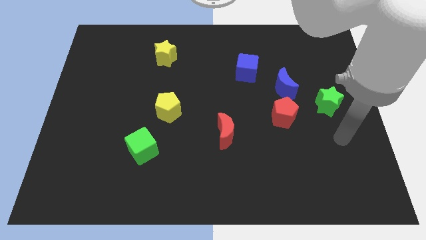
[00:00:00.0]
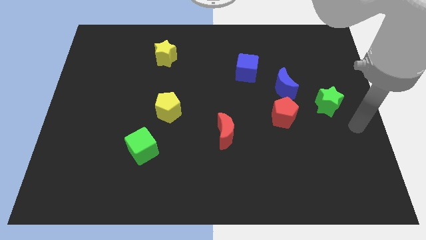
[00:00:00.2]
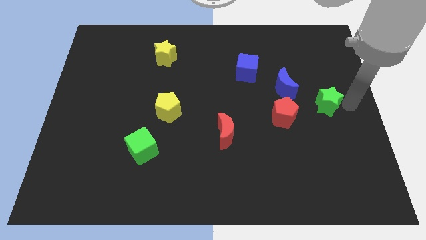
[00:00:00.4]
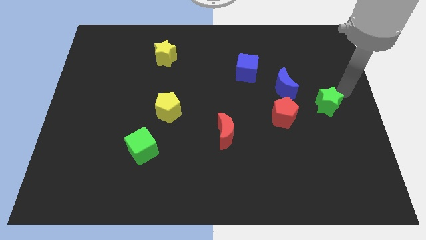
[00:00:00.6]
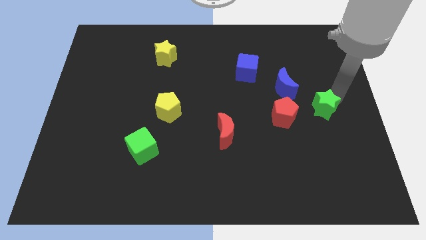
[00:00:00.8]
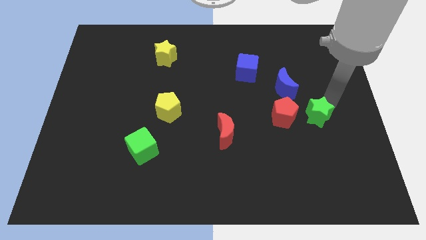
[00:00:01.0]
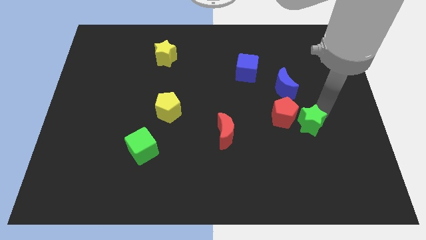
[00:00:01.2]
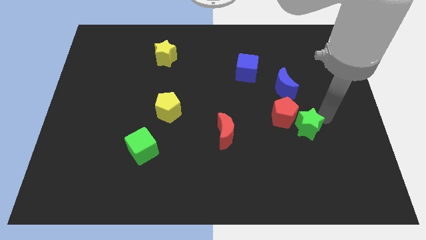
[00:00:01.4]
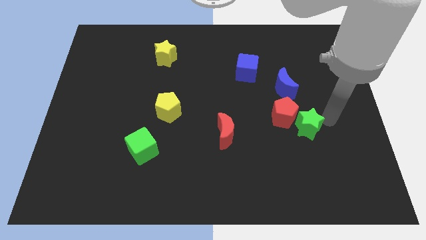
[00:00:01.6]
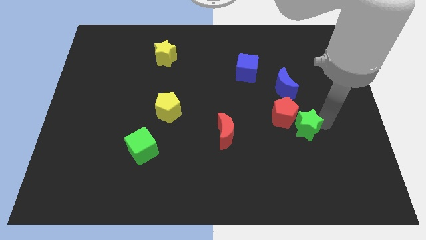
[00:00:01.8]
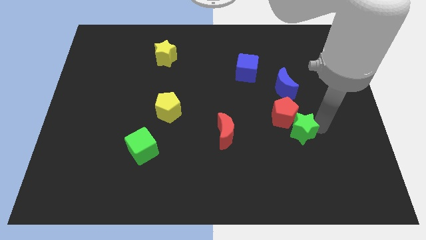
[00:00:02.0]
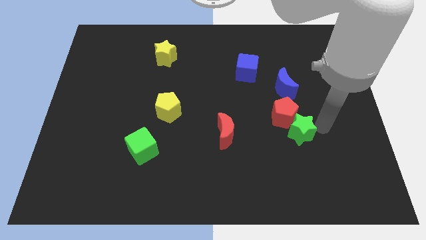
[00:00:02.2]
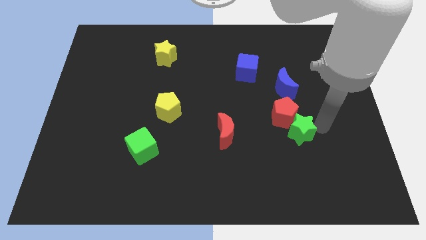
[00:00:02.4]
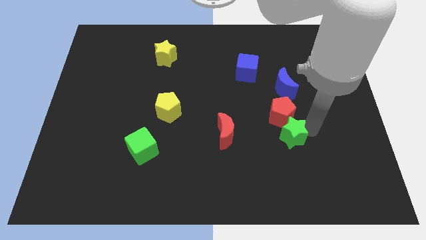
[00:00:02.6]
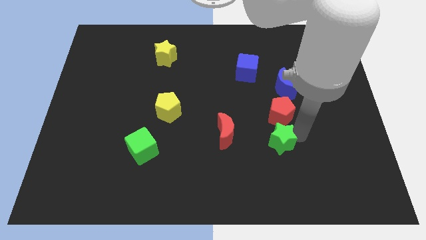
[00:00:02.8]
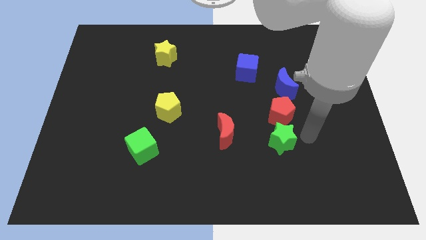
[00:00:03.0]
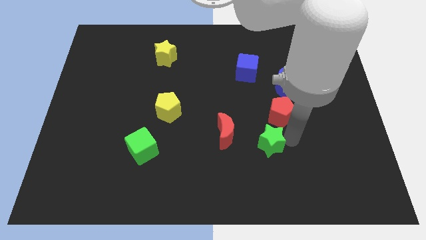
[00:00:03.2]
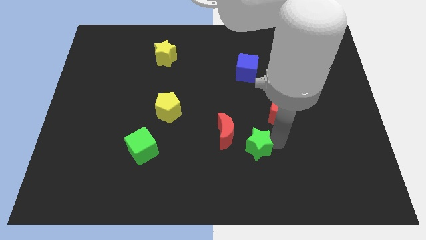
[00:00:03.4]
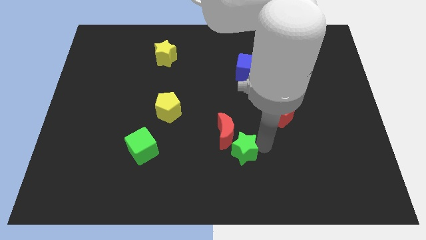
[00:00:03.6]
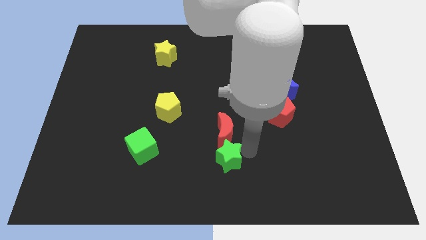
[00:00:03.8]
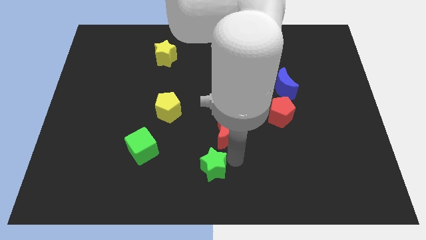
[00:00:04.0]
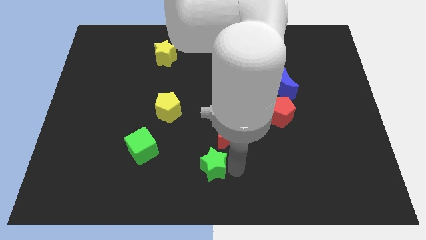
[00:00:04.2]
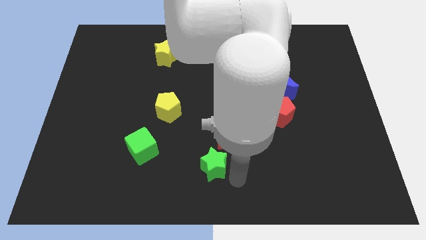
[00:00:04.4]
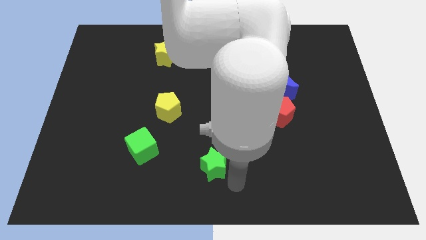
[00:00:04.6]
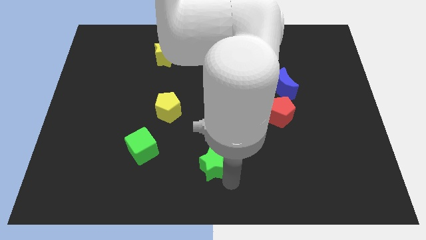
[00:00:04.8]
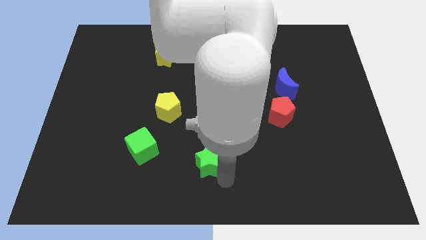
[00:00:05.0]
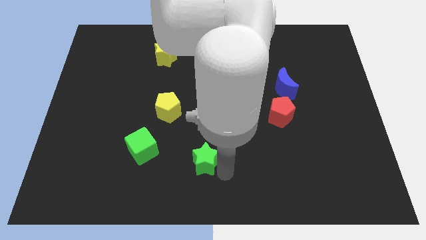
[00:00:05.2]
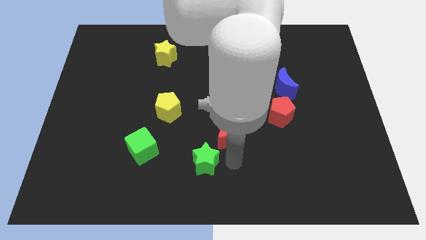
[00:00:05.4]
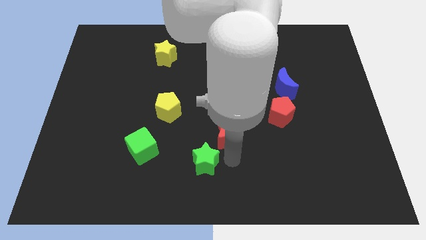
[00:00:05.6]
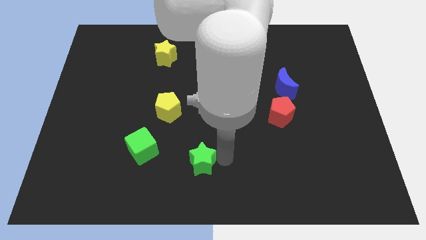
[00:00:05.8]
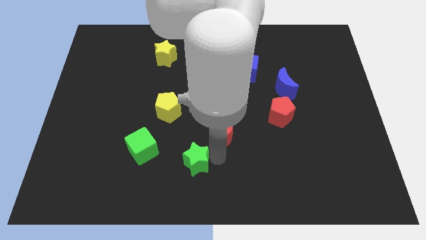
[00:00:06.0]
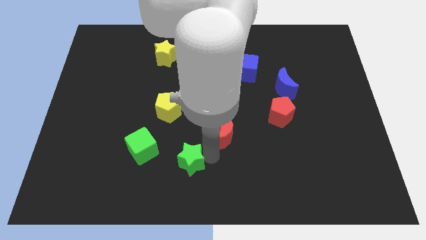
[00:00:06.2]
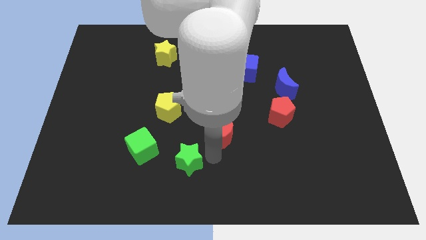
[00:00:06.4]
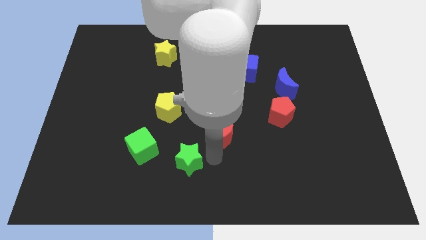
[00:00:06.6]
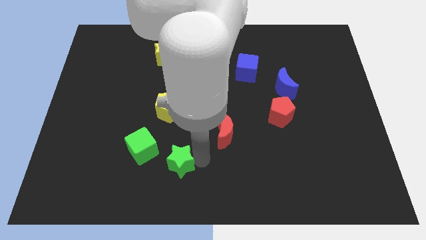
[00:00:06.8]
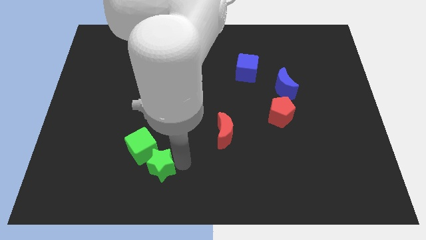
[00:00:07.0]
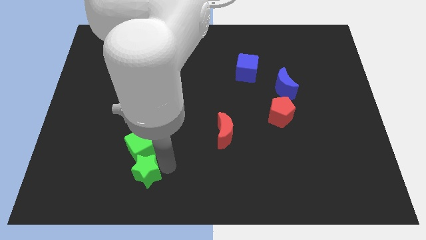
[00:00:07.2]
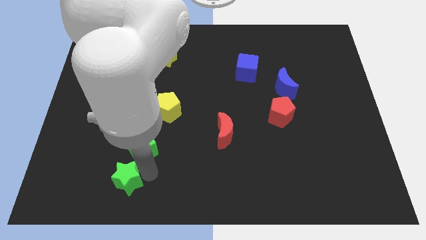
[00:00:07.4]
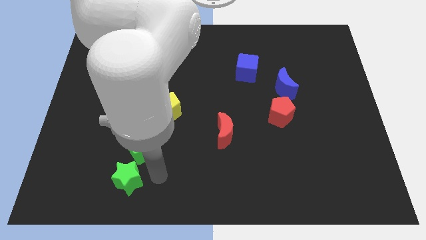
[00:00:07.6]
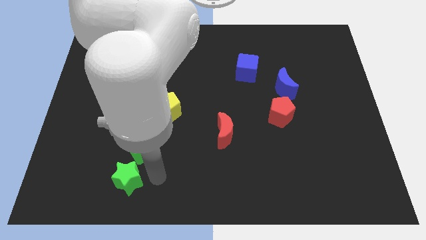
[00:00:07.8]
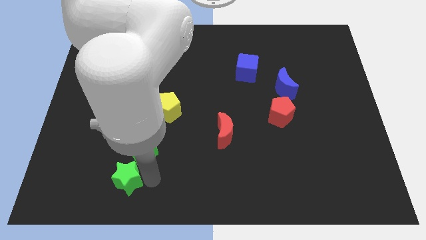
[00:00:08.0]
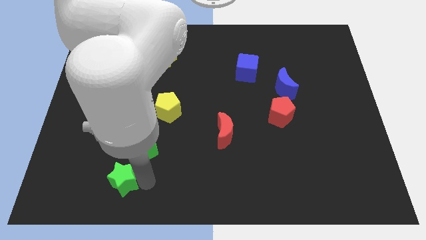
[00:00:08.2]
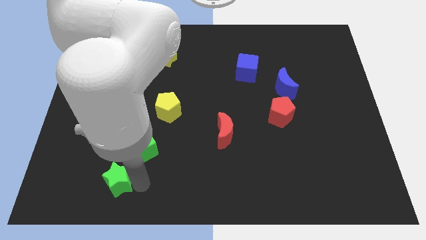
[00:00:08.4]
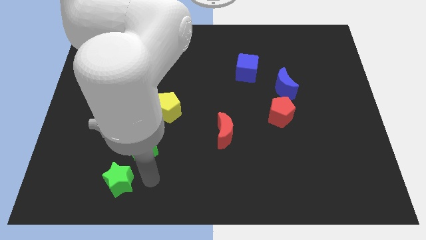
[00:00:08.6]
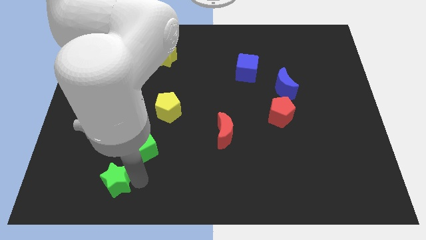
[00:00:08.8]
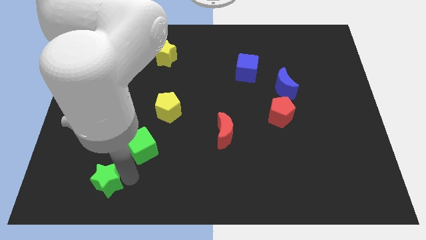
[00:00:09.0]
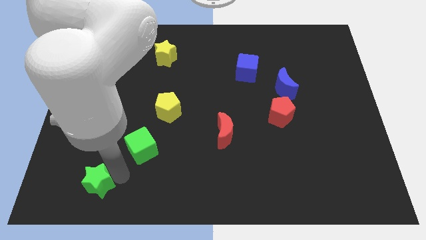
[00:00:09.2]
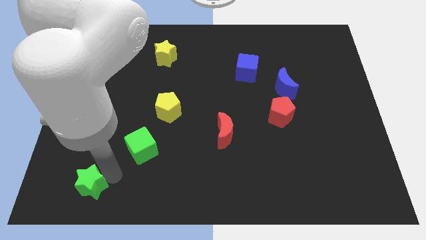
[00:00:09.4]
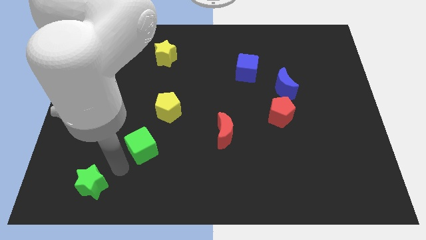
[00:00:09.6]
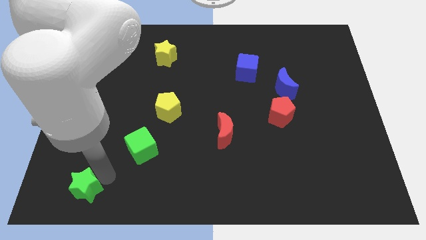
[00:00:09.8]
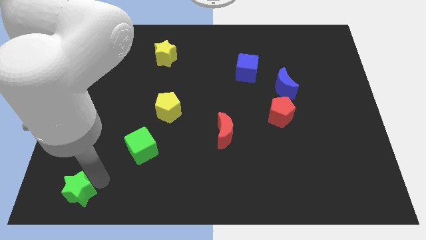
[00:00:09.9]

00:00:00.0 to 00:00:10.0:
move the green star to the bottom left of the board

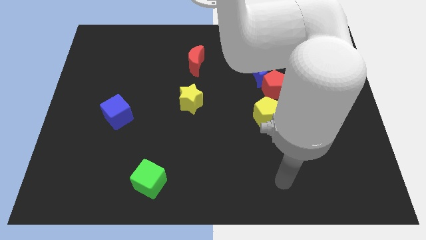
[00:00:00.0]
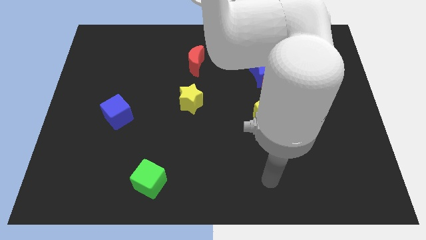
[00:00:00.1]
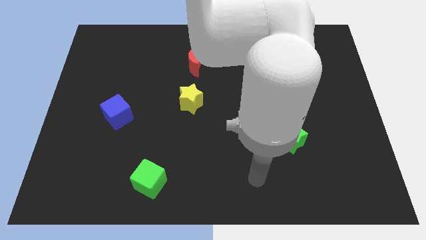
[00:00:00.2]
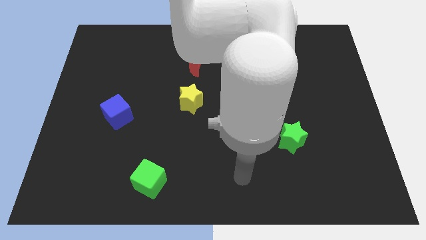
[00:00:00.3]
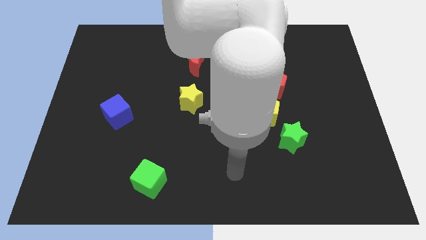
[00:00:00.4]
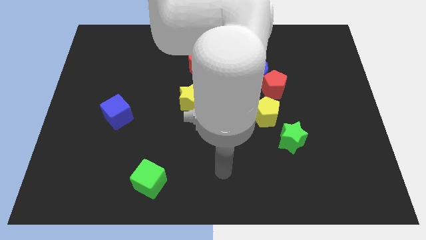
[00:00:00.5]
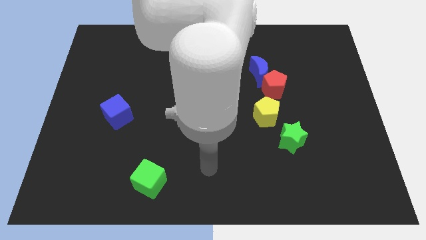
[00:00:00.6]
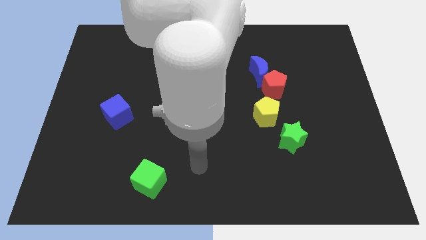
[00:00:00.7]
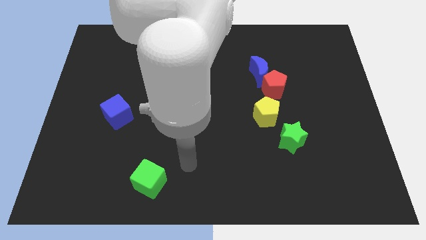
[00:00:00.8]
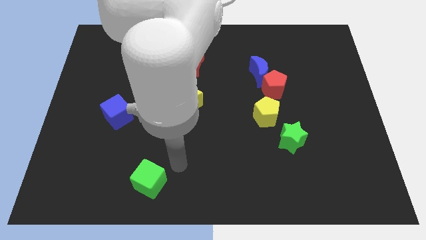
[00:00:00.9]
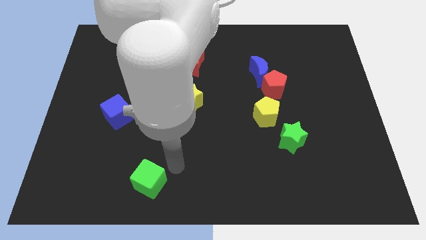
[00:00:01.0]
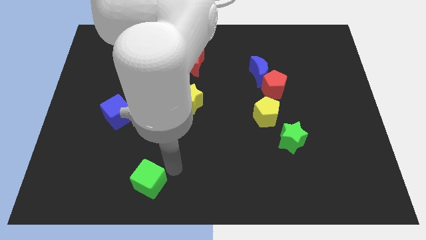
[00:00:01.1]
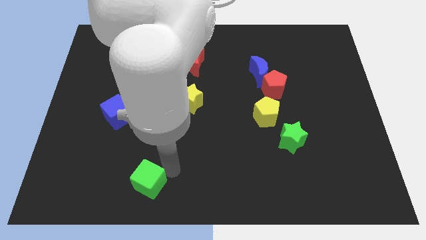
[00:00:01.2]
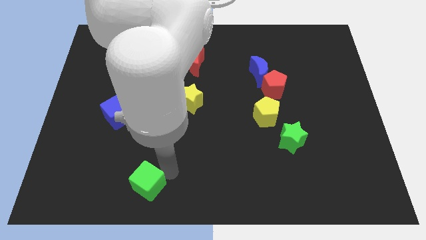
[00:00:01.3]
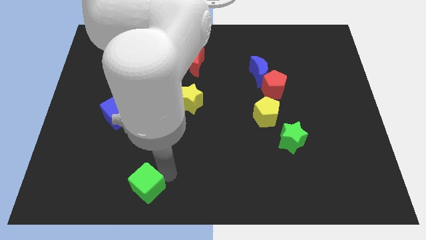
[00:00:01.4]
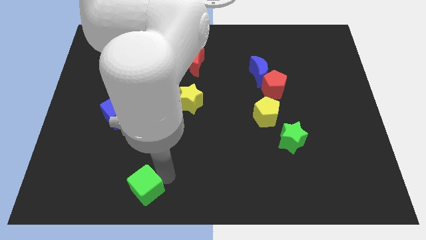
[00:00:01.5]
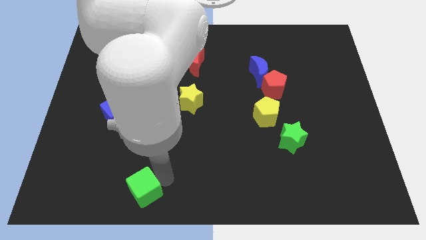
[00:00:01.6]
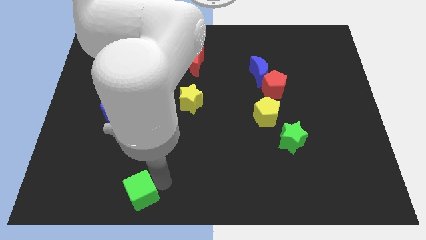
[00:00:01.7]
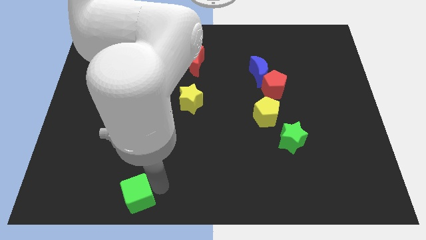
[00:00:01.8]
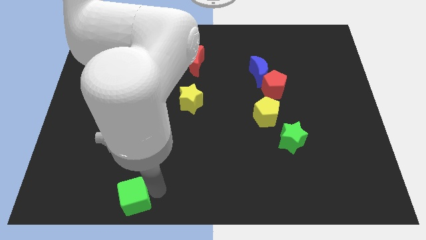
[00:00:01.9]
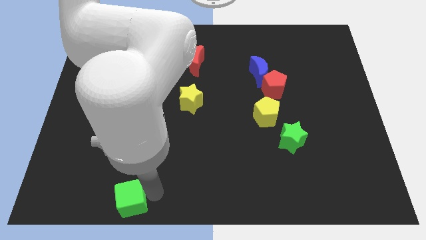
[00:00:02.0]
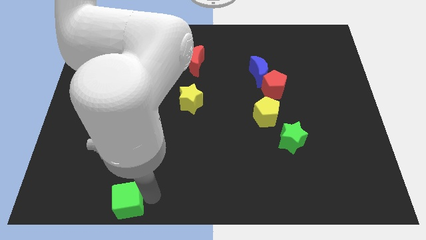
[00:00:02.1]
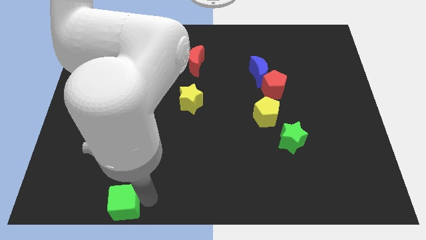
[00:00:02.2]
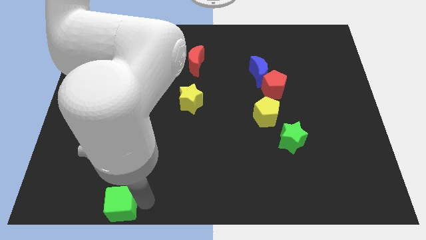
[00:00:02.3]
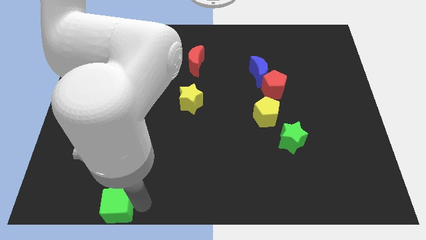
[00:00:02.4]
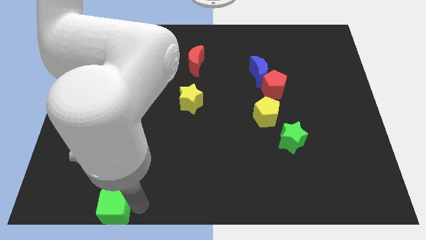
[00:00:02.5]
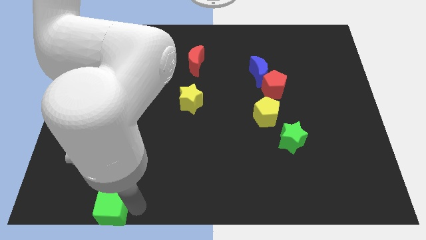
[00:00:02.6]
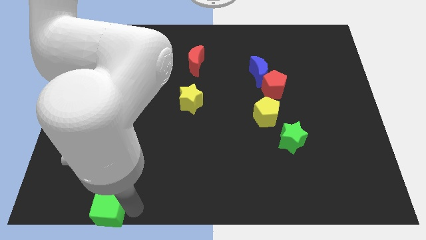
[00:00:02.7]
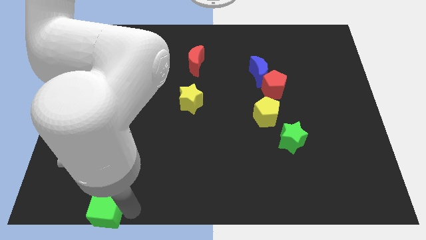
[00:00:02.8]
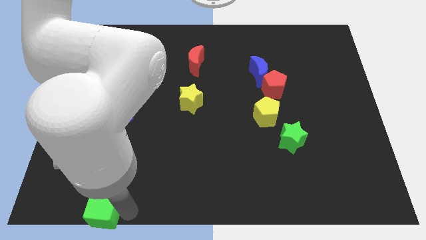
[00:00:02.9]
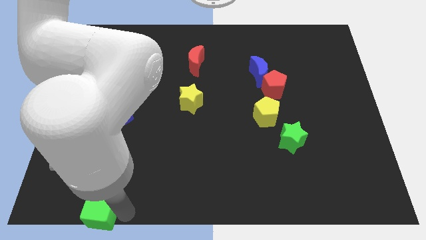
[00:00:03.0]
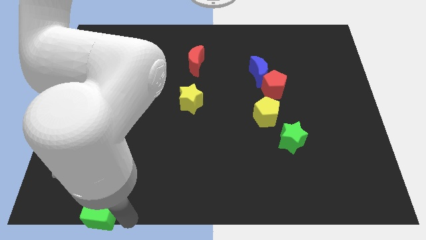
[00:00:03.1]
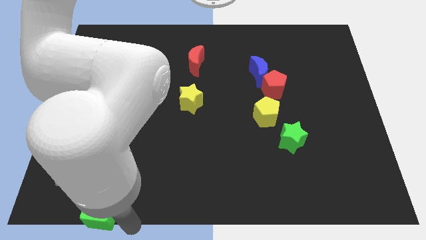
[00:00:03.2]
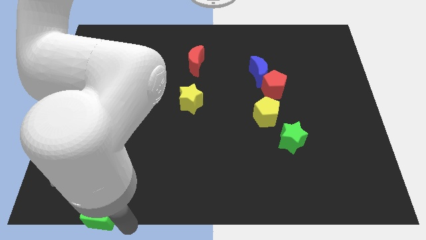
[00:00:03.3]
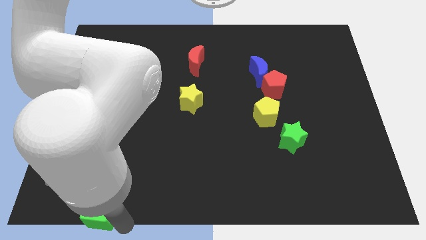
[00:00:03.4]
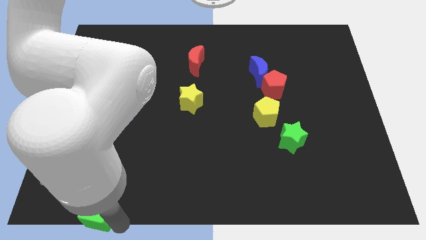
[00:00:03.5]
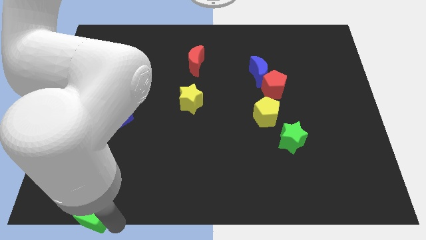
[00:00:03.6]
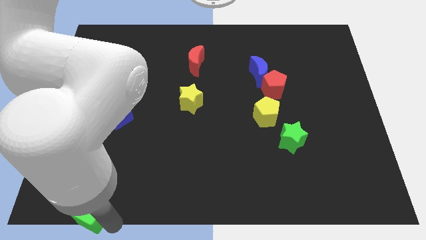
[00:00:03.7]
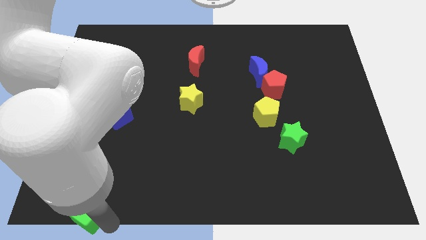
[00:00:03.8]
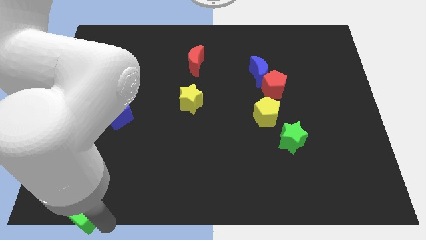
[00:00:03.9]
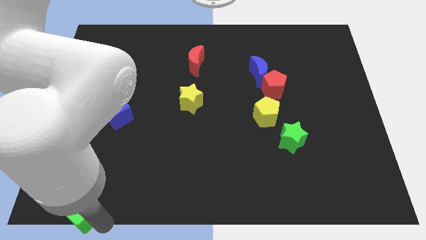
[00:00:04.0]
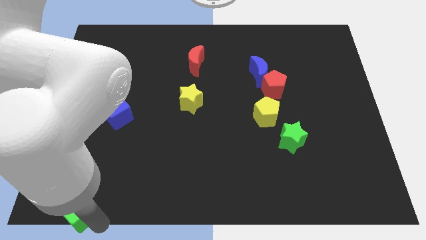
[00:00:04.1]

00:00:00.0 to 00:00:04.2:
slide the green cube to the lower left corner
